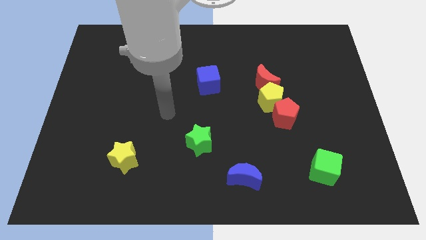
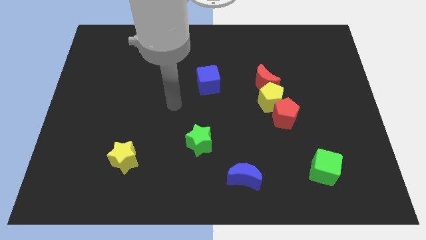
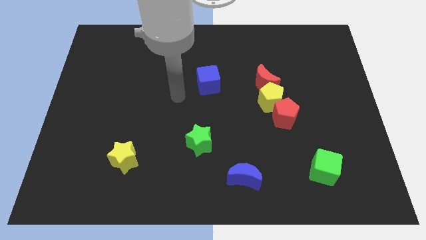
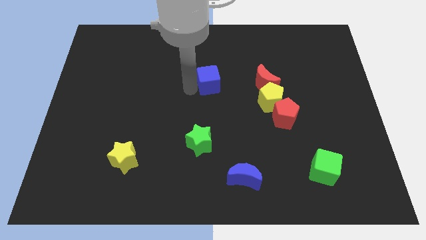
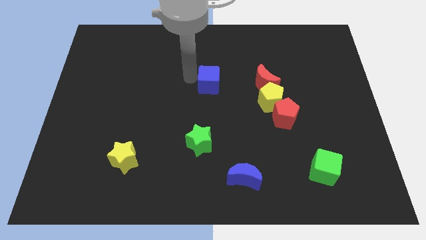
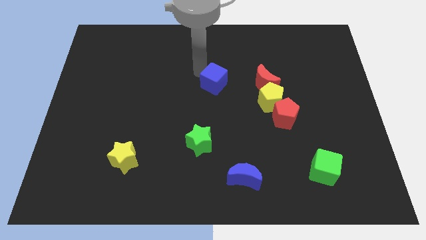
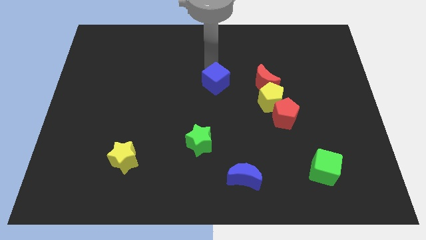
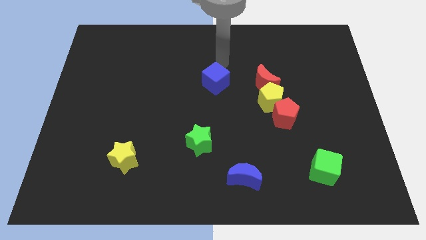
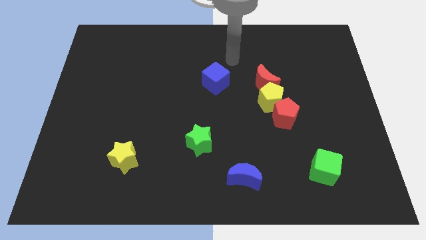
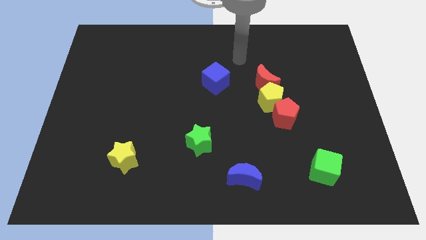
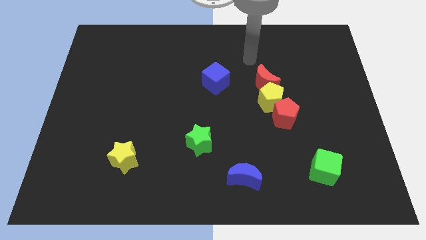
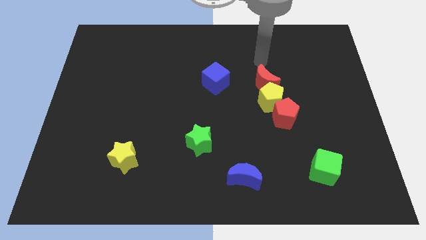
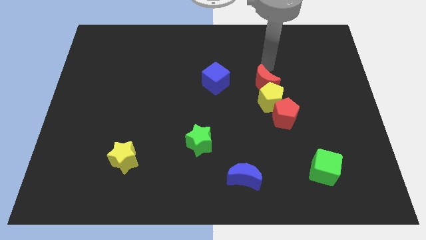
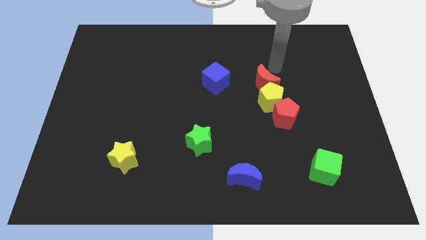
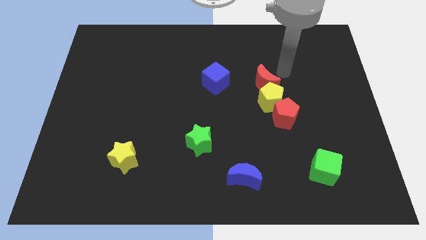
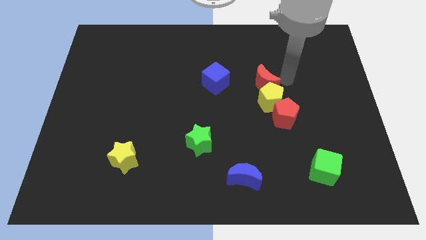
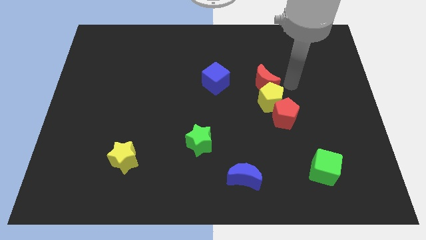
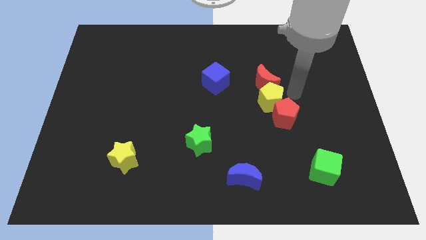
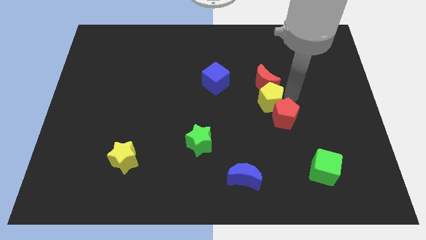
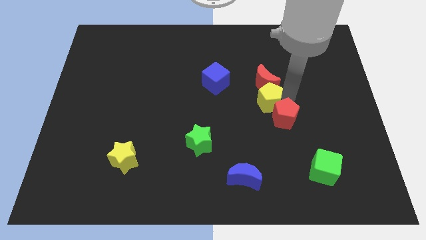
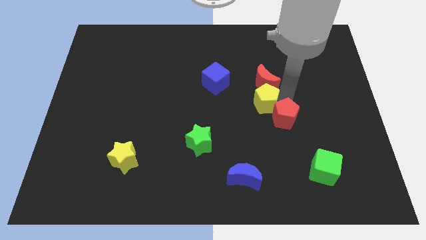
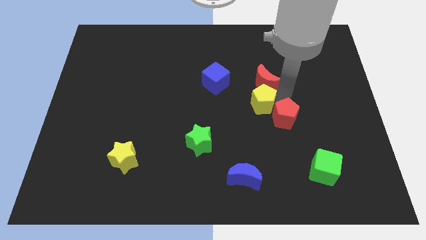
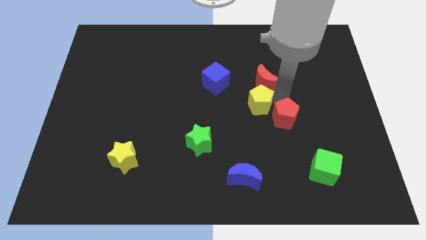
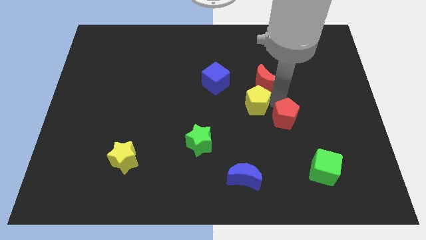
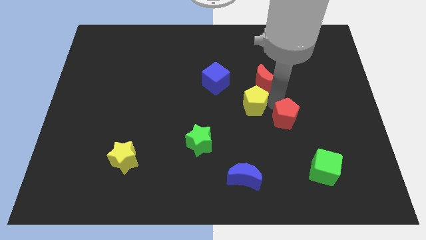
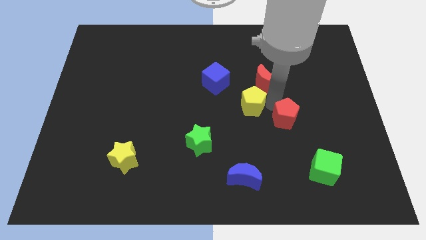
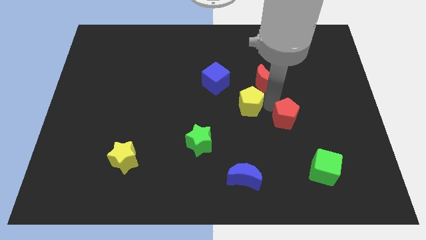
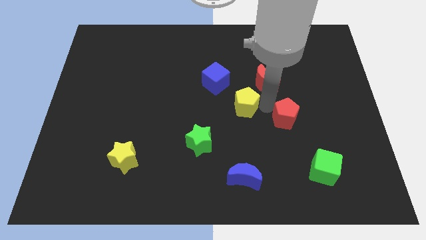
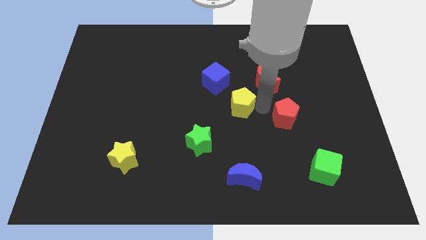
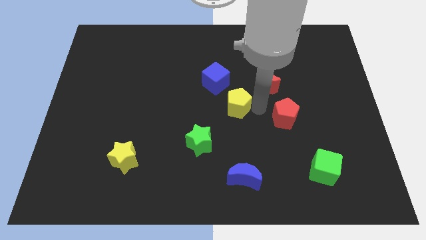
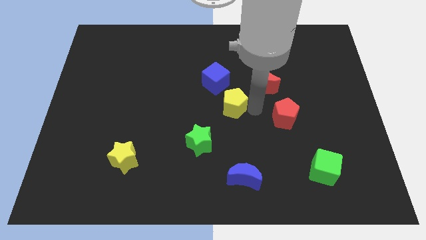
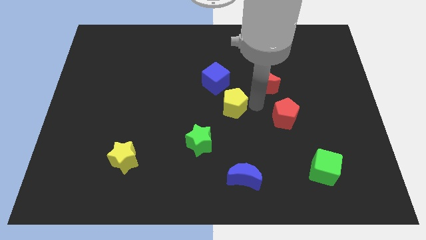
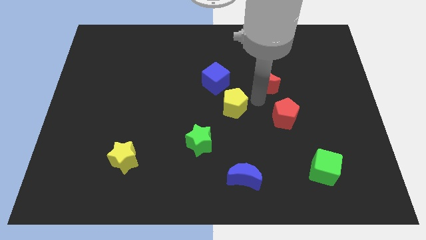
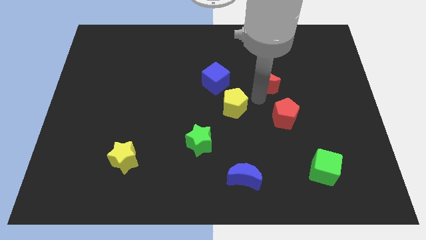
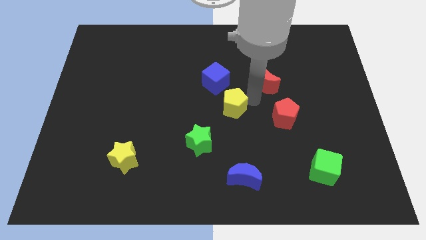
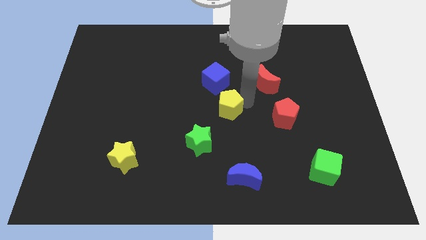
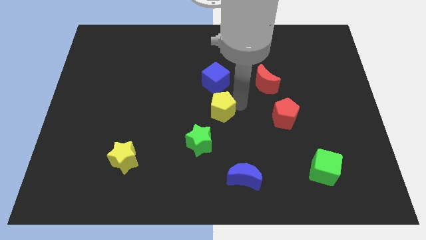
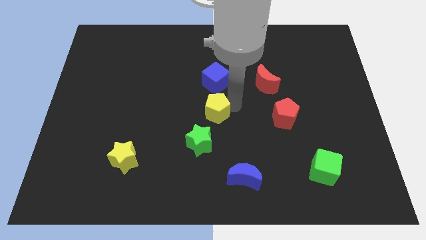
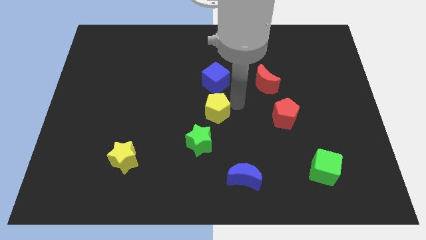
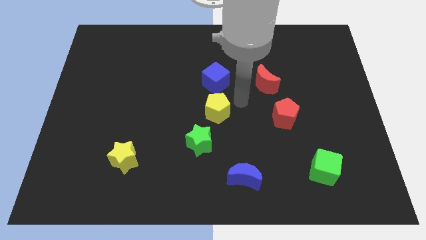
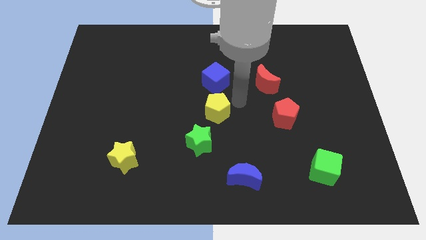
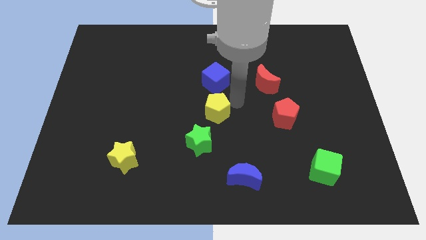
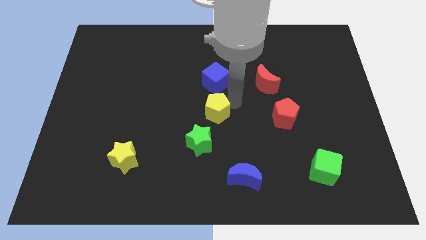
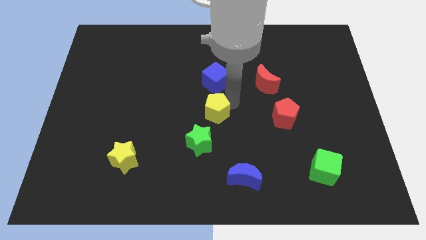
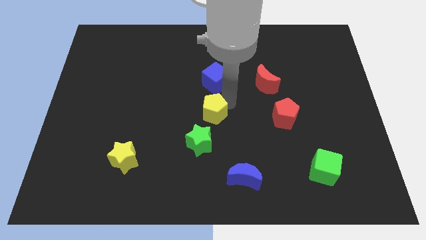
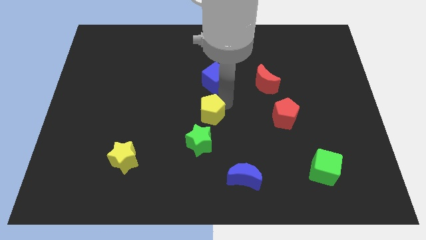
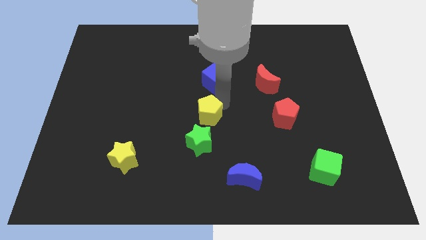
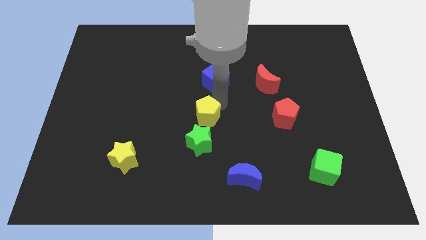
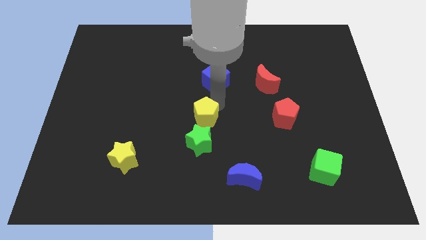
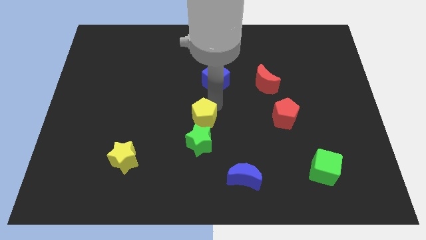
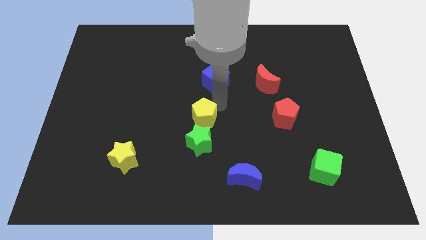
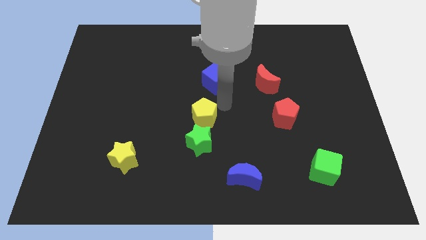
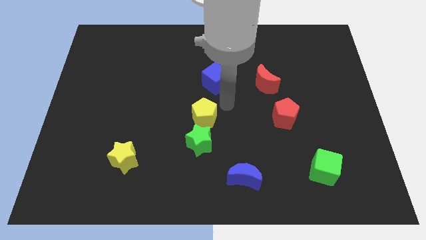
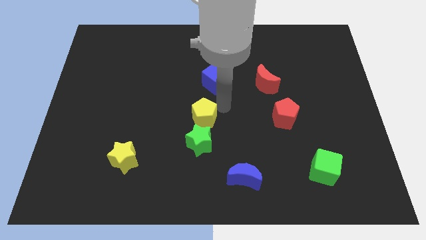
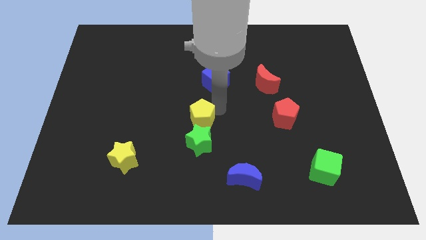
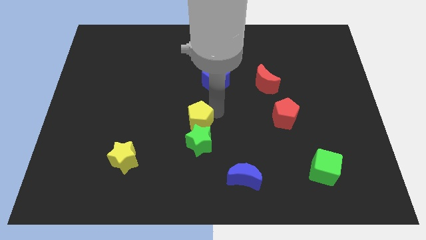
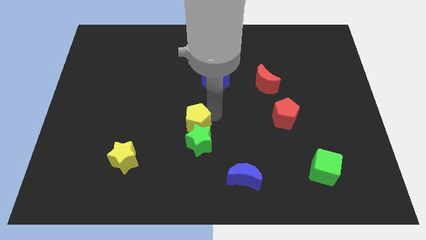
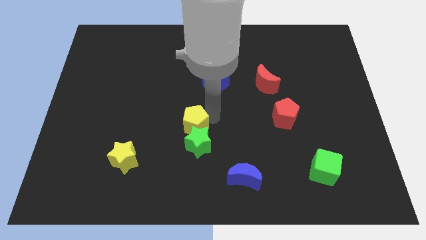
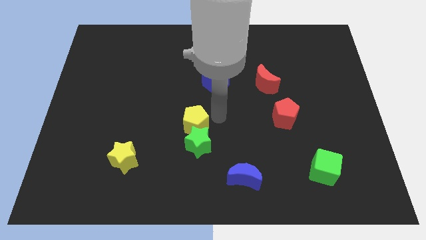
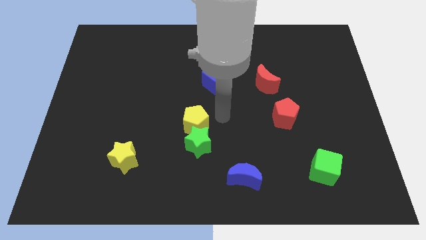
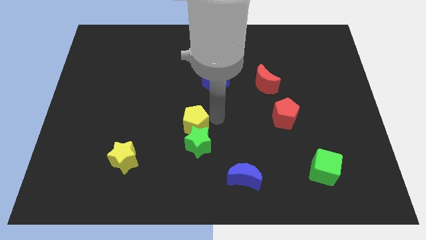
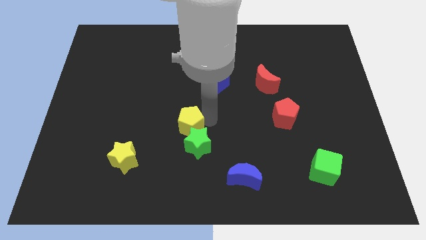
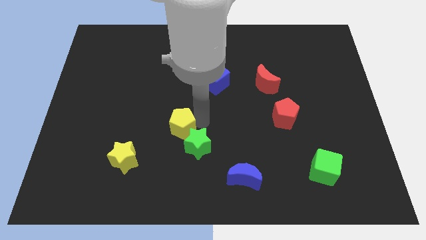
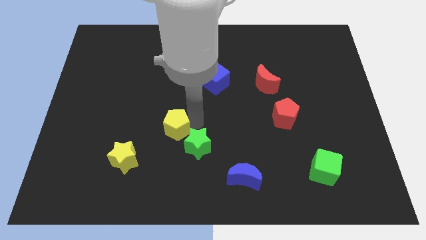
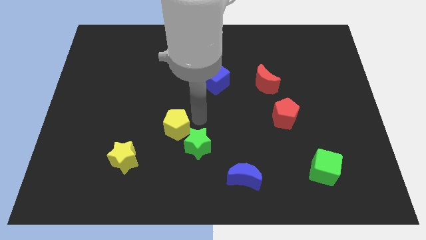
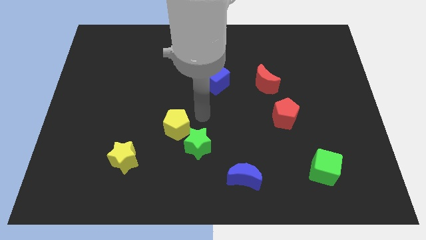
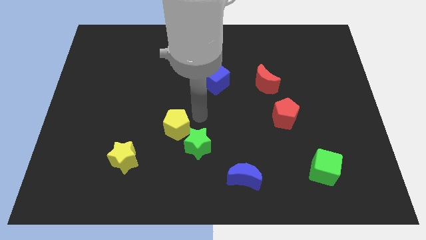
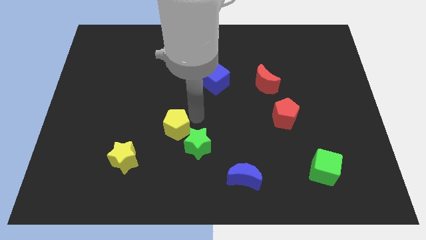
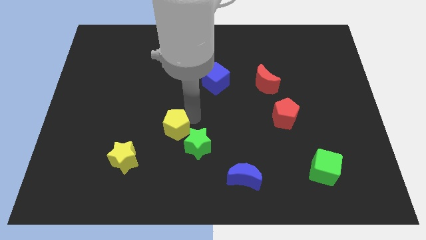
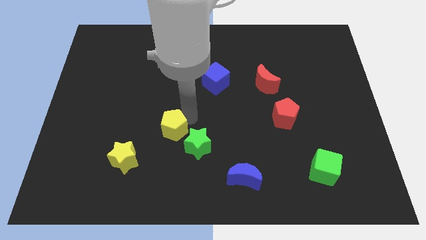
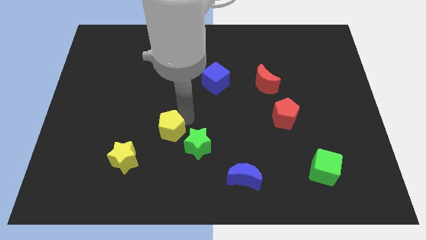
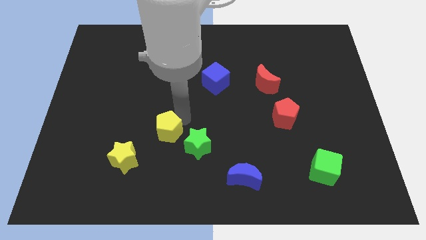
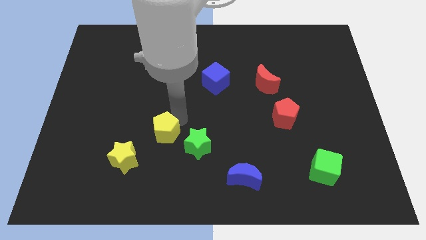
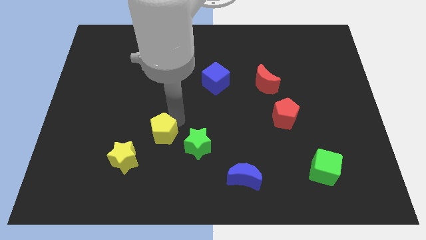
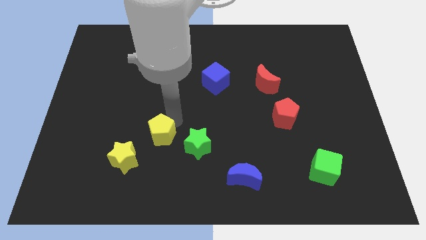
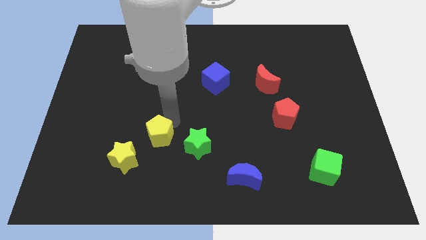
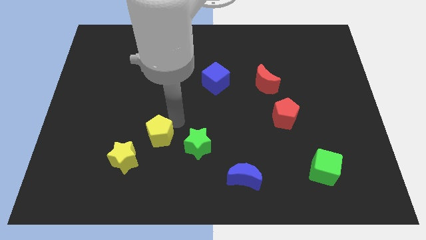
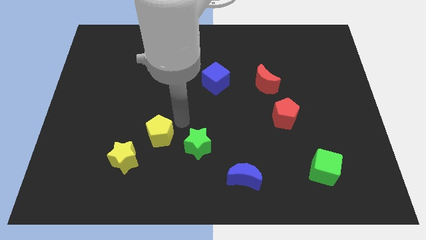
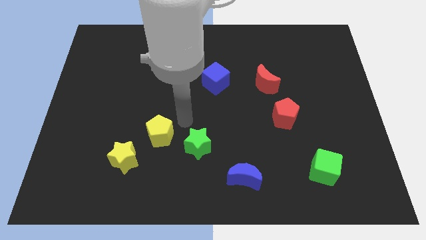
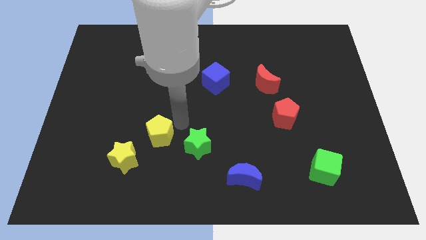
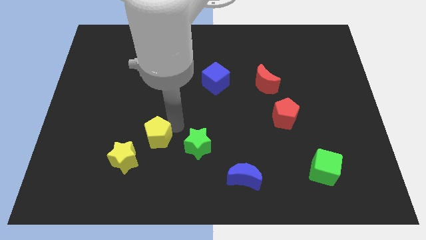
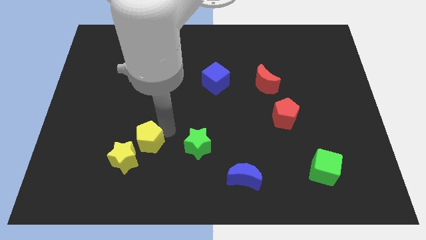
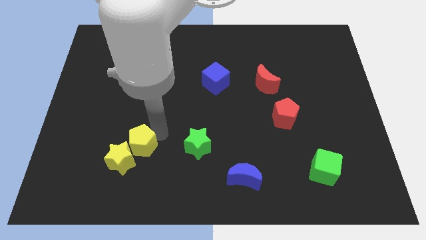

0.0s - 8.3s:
move the yellow pentagon towards the yellow star
